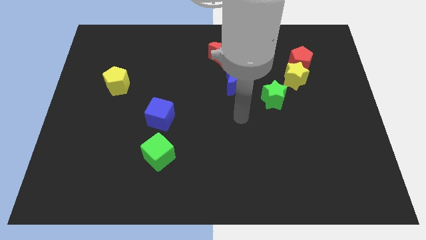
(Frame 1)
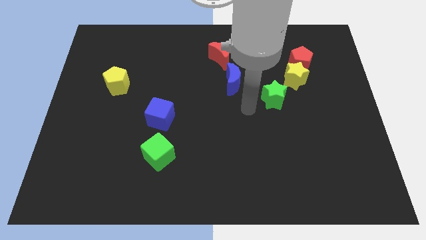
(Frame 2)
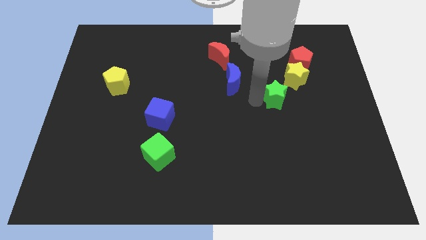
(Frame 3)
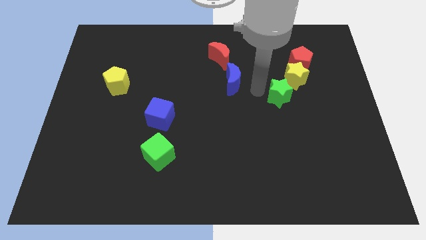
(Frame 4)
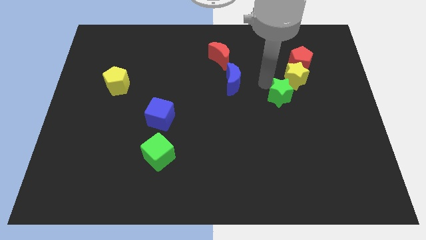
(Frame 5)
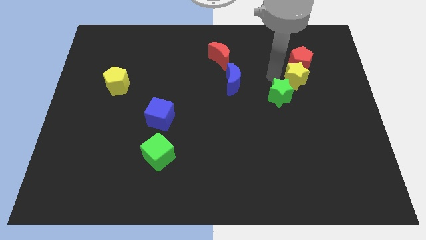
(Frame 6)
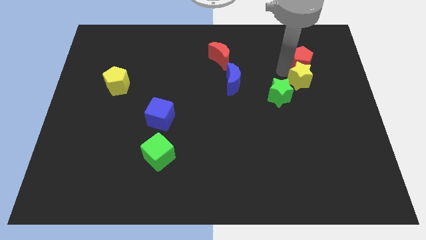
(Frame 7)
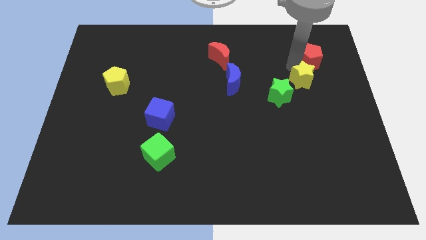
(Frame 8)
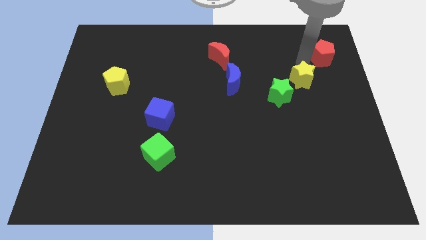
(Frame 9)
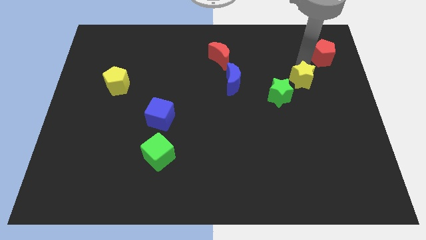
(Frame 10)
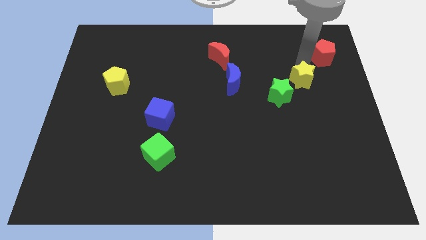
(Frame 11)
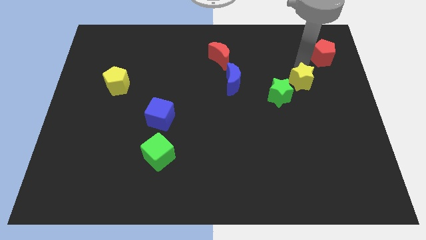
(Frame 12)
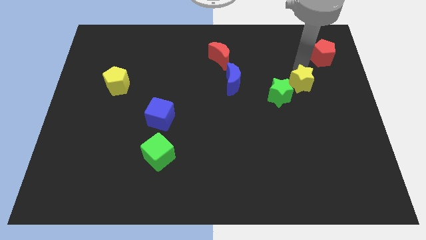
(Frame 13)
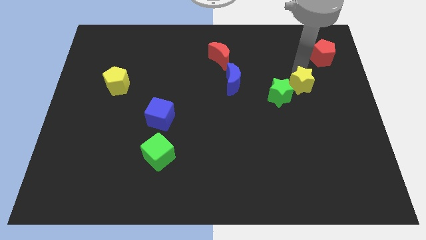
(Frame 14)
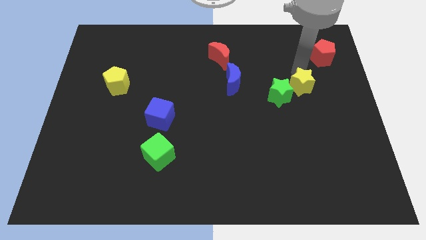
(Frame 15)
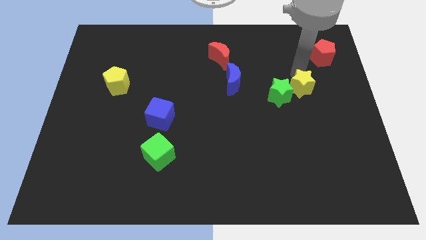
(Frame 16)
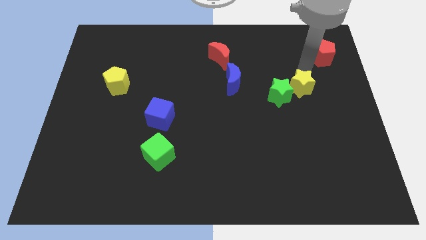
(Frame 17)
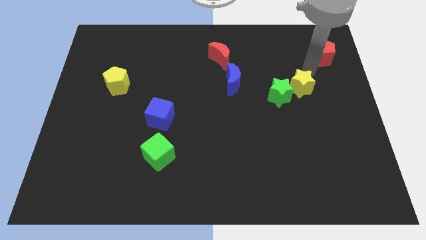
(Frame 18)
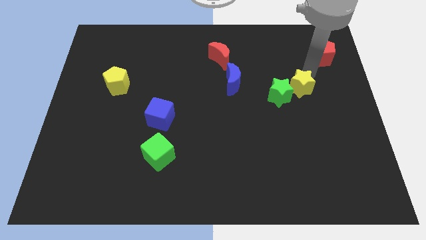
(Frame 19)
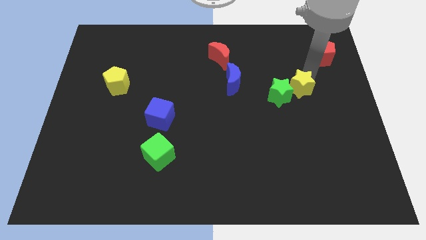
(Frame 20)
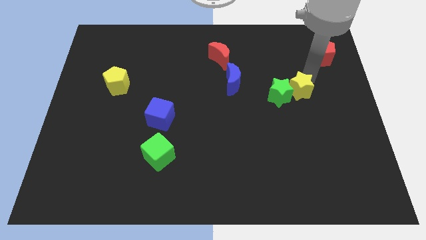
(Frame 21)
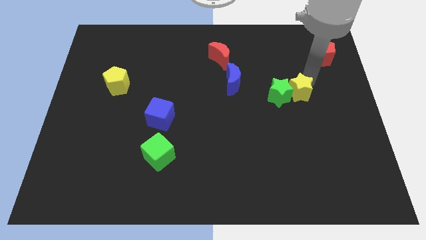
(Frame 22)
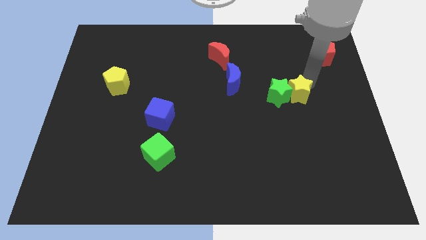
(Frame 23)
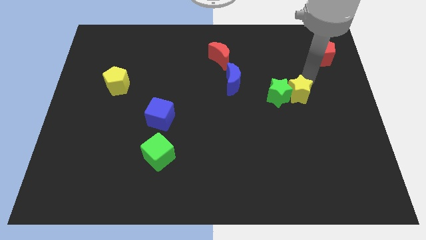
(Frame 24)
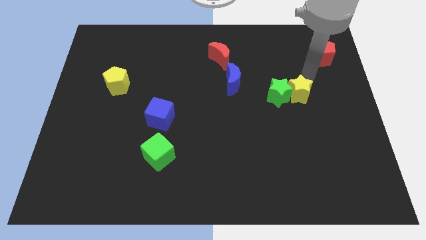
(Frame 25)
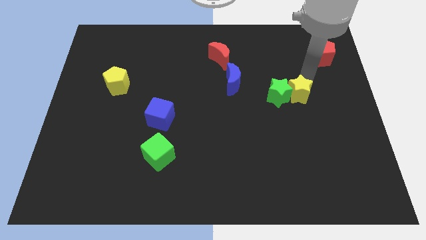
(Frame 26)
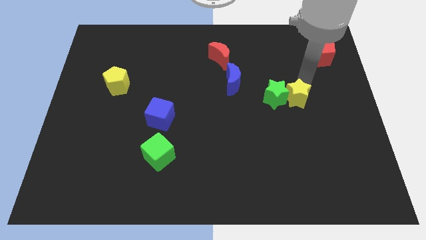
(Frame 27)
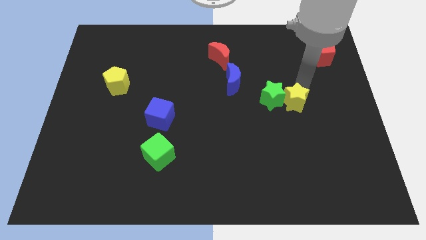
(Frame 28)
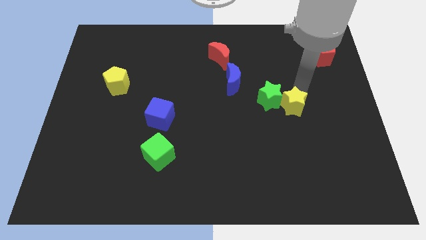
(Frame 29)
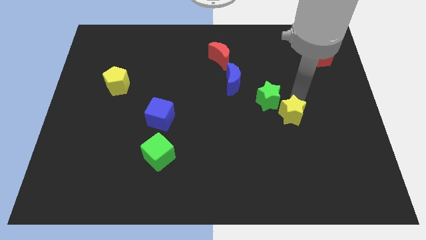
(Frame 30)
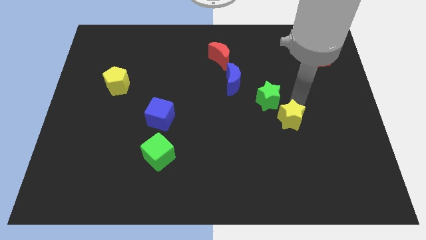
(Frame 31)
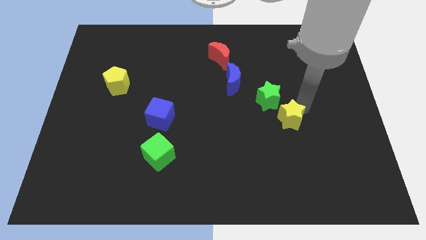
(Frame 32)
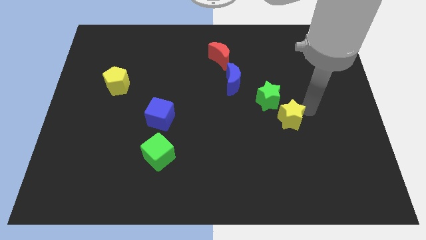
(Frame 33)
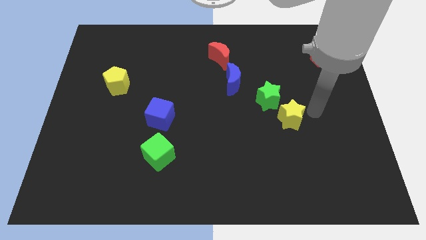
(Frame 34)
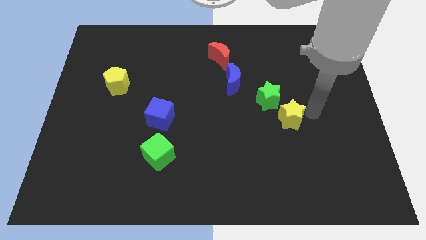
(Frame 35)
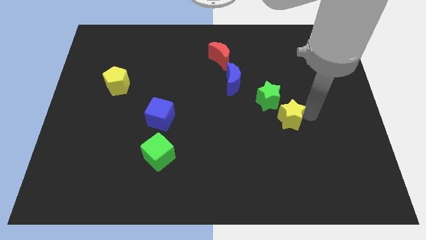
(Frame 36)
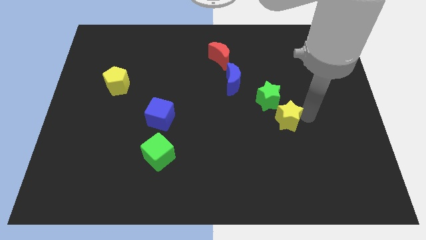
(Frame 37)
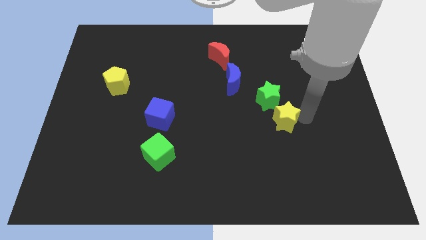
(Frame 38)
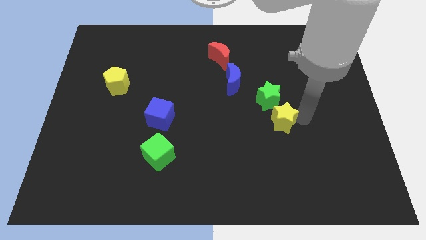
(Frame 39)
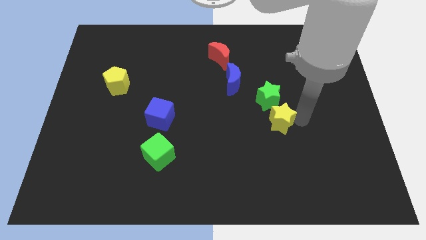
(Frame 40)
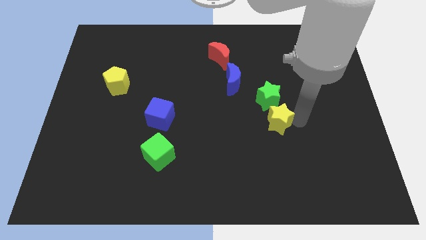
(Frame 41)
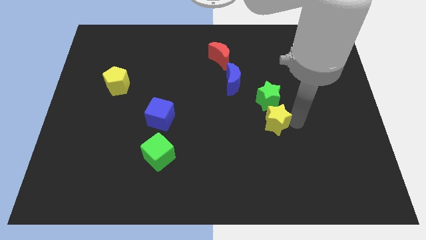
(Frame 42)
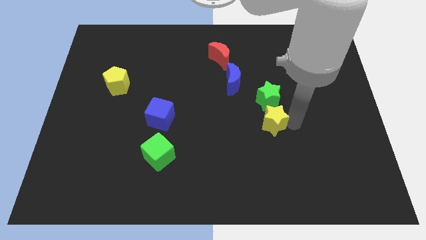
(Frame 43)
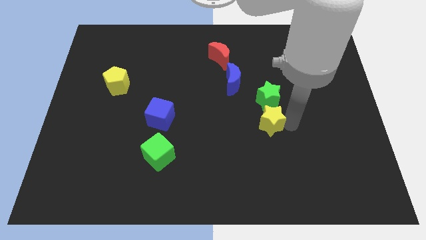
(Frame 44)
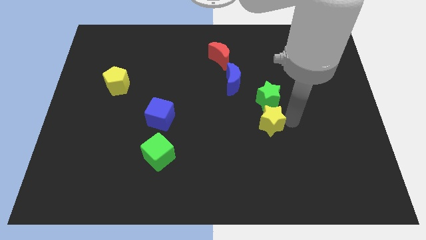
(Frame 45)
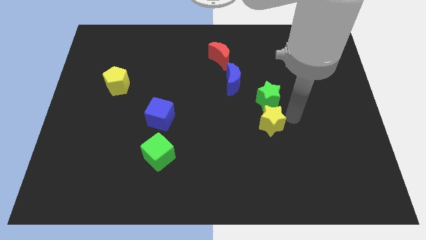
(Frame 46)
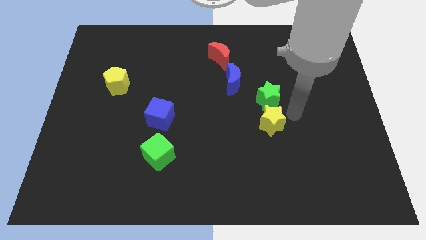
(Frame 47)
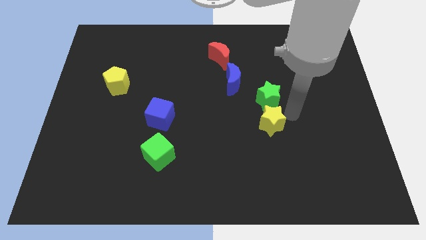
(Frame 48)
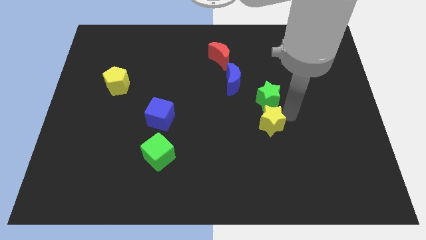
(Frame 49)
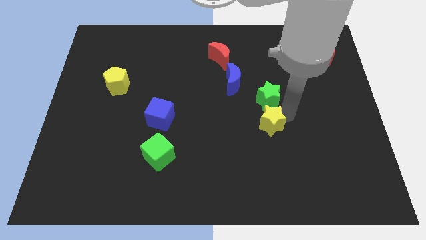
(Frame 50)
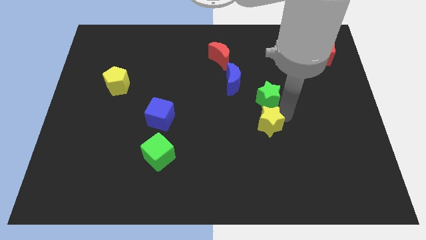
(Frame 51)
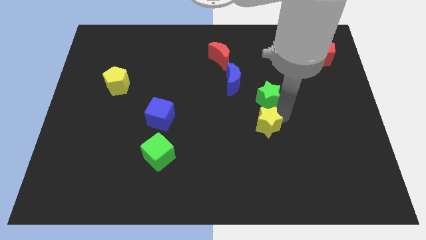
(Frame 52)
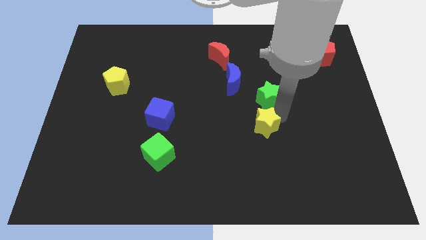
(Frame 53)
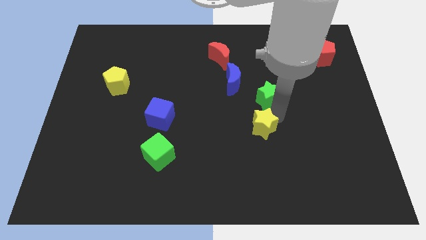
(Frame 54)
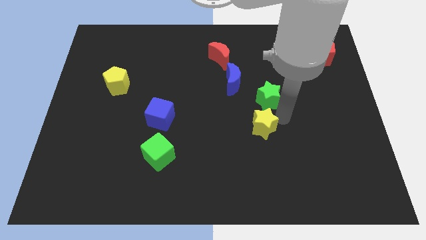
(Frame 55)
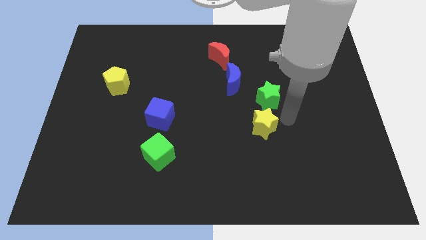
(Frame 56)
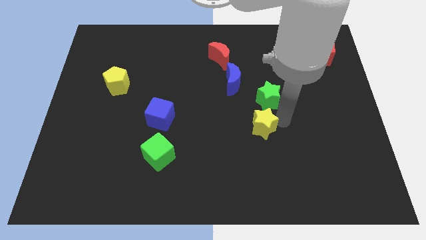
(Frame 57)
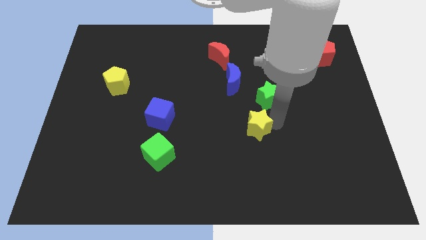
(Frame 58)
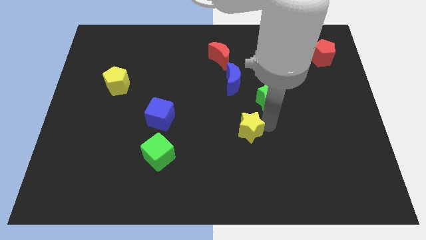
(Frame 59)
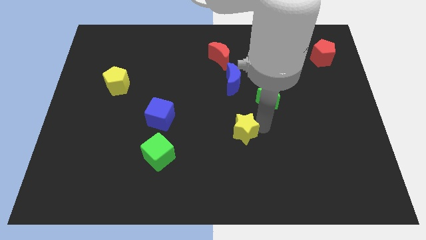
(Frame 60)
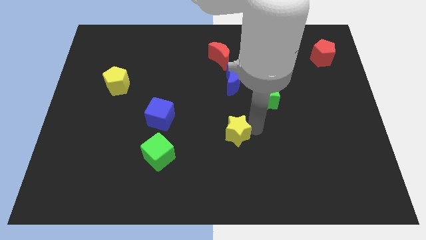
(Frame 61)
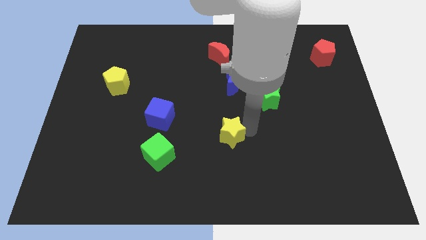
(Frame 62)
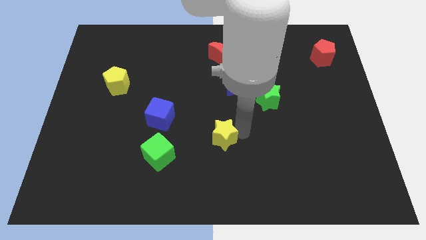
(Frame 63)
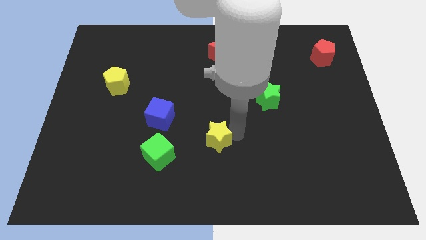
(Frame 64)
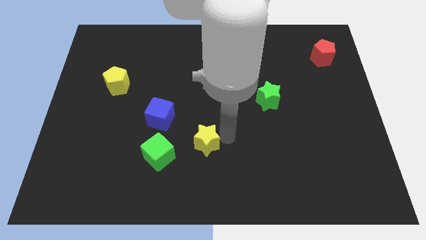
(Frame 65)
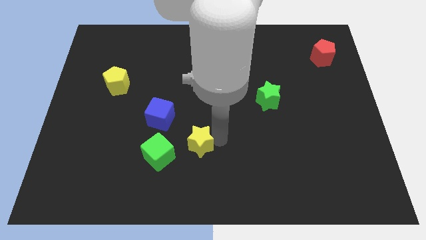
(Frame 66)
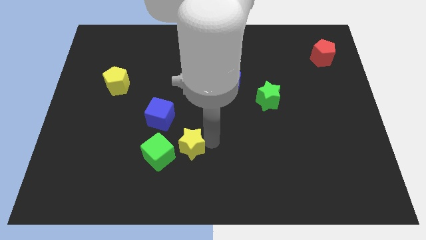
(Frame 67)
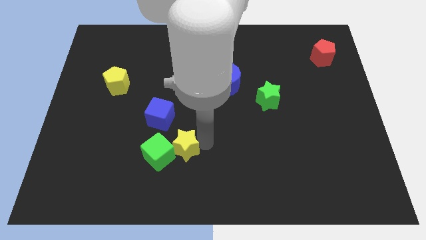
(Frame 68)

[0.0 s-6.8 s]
slide the yellow star close to the green cube

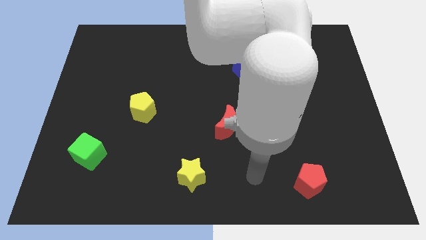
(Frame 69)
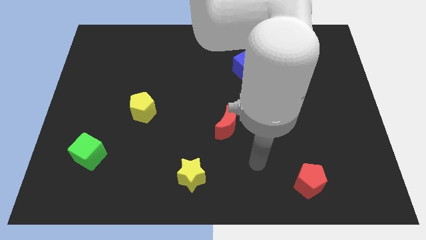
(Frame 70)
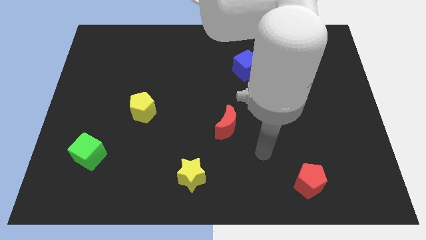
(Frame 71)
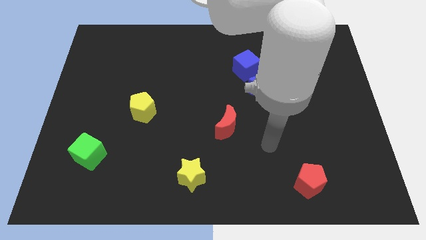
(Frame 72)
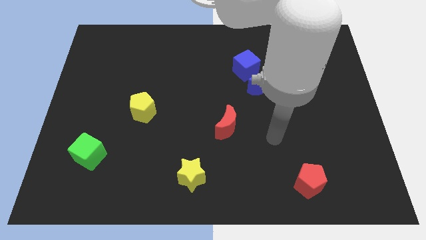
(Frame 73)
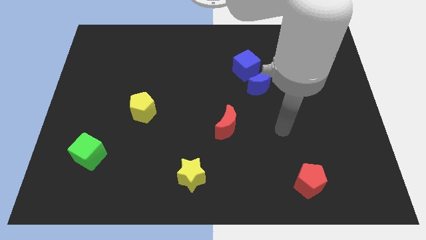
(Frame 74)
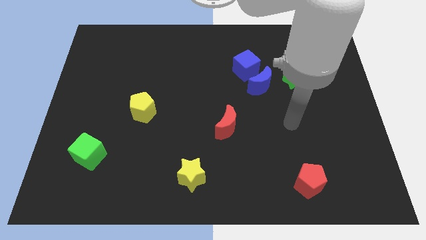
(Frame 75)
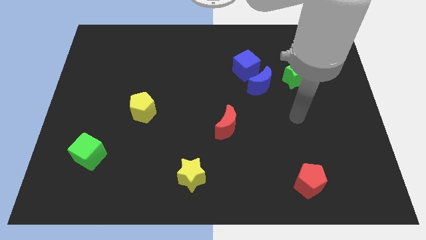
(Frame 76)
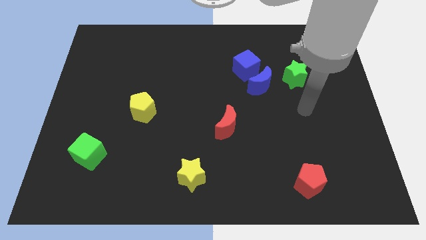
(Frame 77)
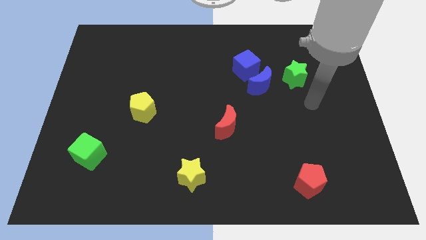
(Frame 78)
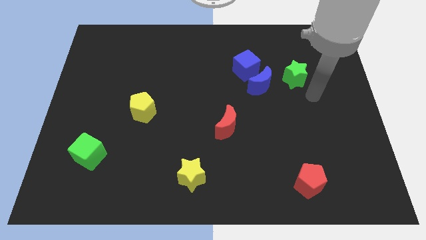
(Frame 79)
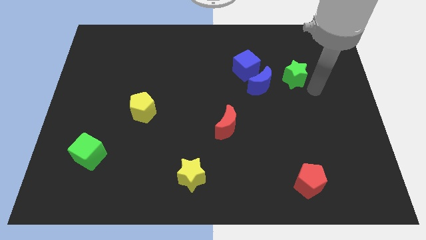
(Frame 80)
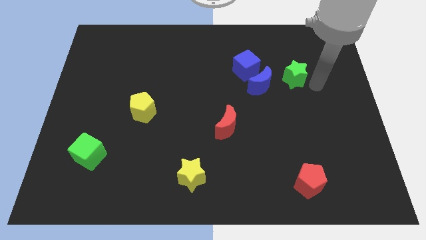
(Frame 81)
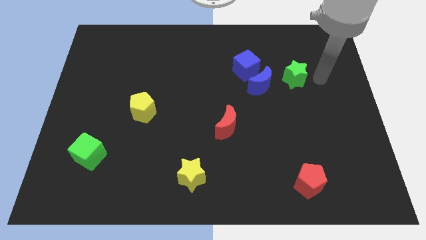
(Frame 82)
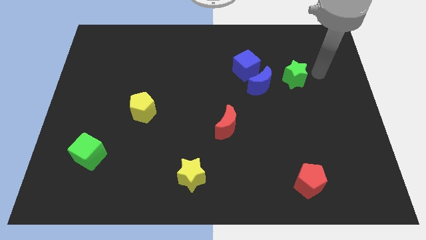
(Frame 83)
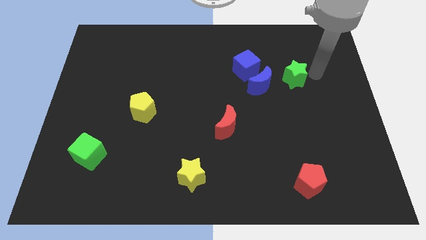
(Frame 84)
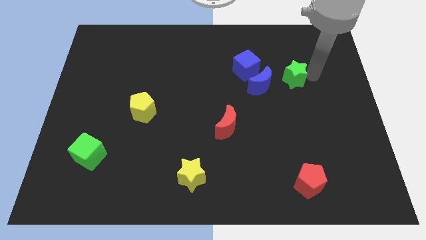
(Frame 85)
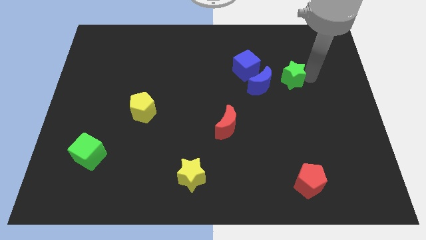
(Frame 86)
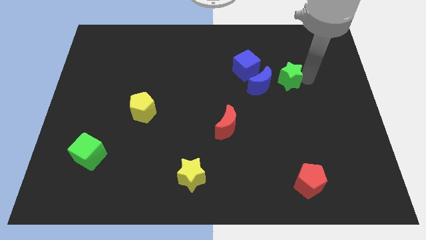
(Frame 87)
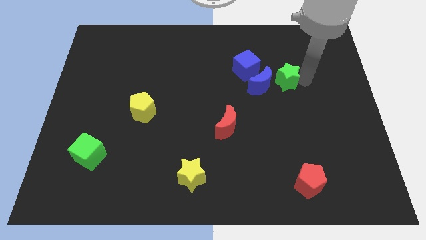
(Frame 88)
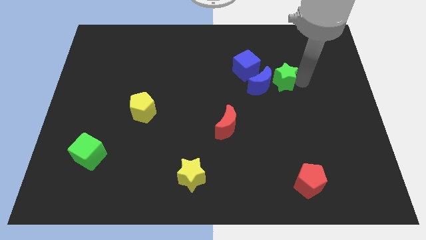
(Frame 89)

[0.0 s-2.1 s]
push the green star close to the blue moon
